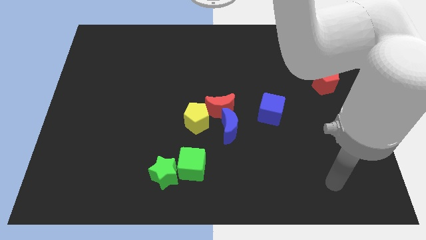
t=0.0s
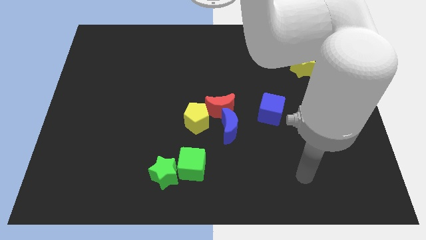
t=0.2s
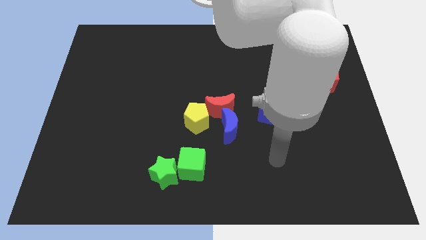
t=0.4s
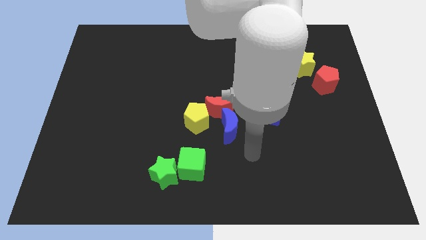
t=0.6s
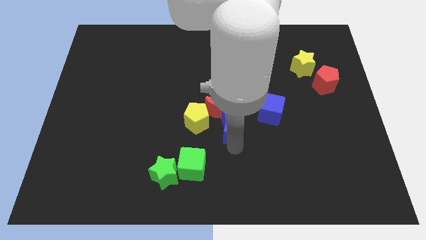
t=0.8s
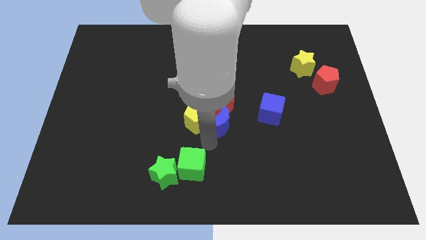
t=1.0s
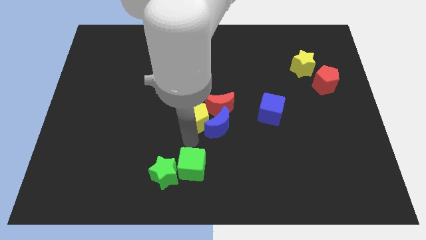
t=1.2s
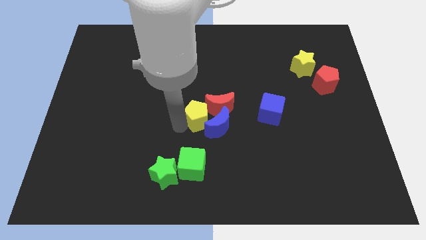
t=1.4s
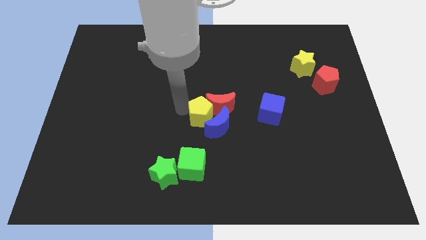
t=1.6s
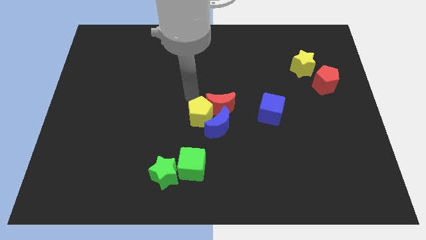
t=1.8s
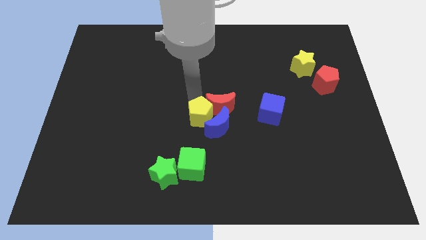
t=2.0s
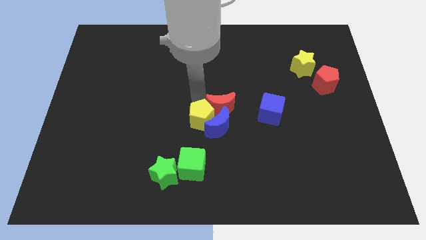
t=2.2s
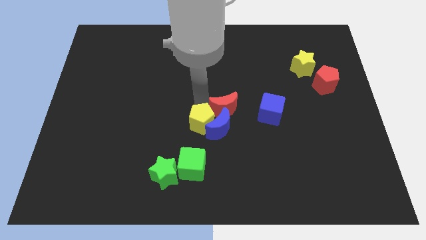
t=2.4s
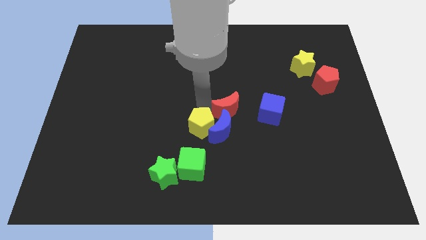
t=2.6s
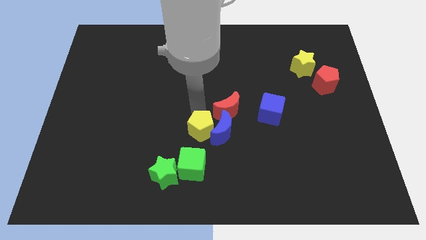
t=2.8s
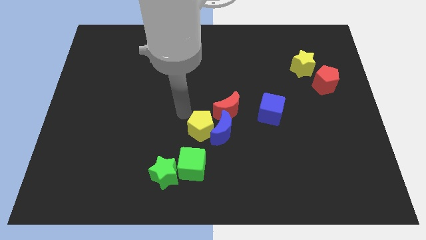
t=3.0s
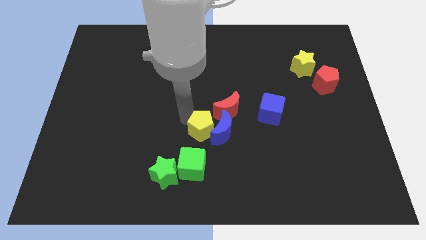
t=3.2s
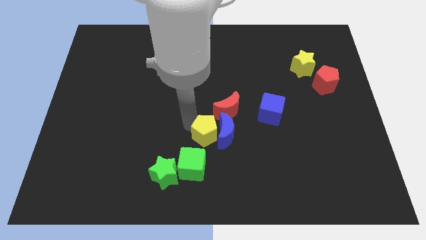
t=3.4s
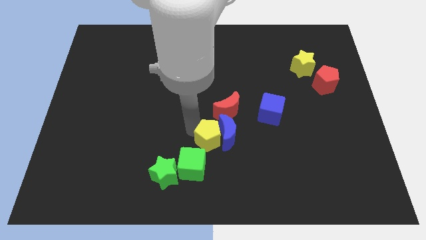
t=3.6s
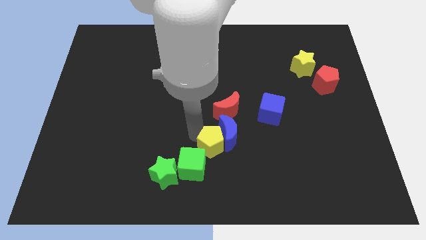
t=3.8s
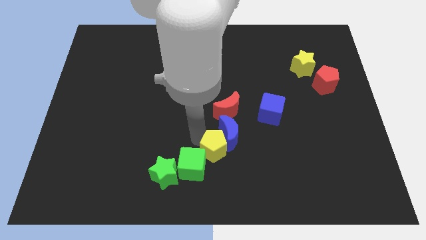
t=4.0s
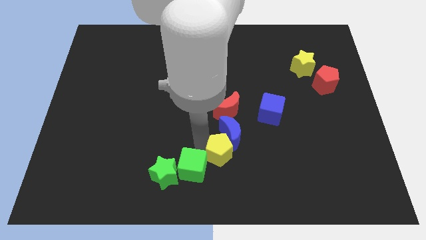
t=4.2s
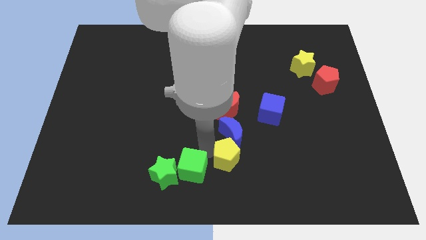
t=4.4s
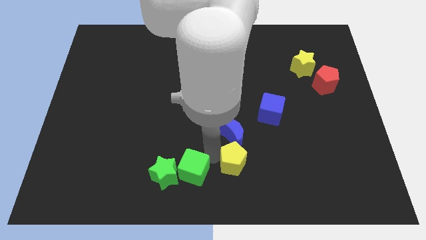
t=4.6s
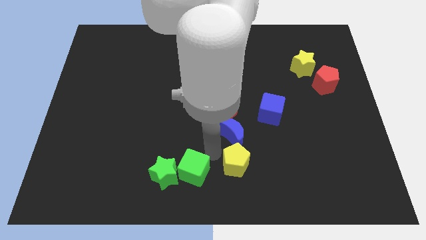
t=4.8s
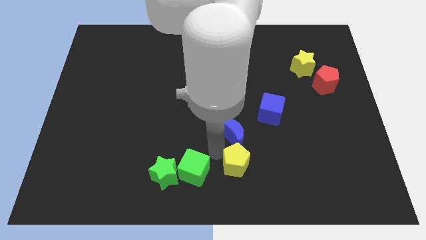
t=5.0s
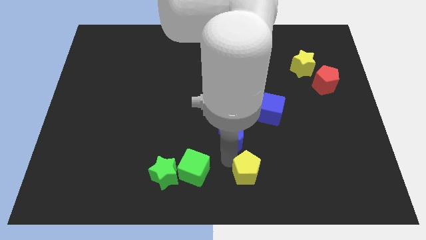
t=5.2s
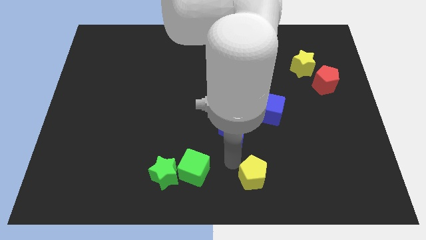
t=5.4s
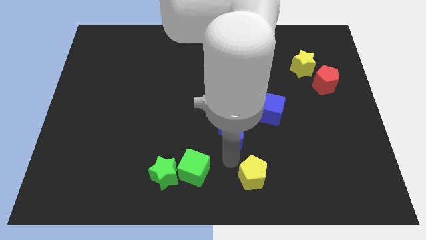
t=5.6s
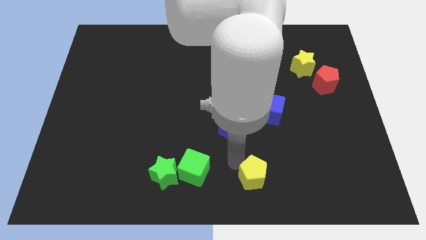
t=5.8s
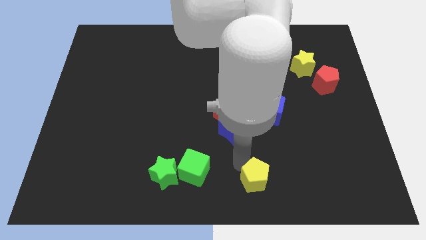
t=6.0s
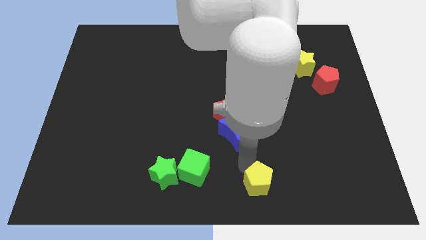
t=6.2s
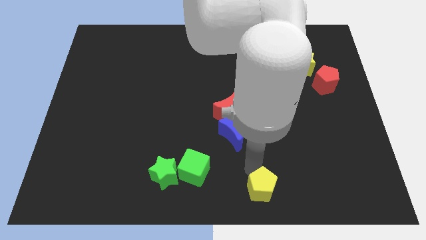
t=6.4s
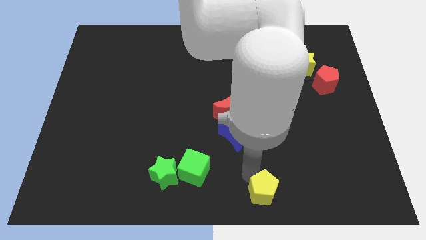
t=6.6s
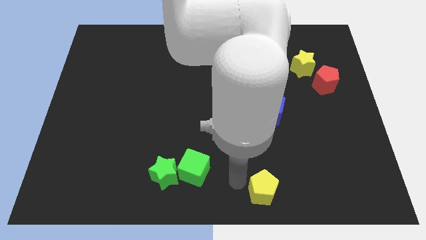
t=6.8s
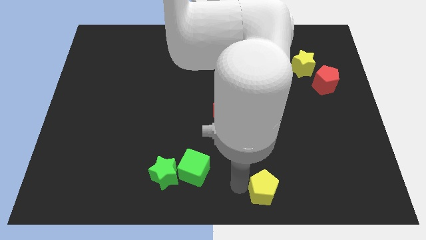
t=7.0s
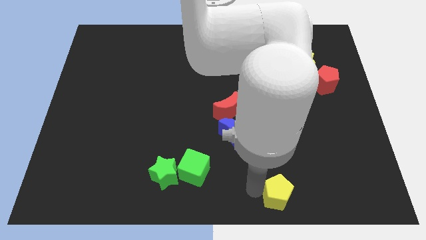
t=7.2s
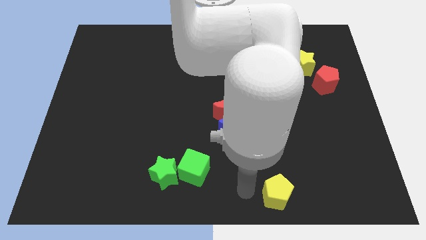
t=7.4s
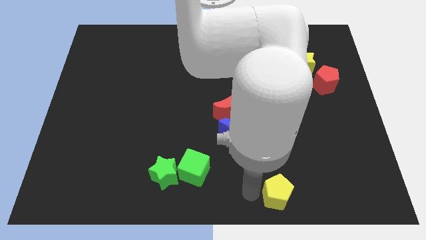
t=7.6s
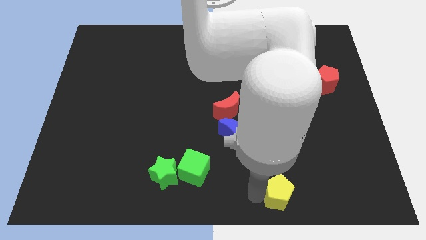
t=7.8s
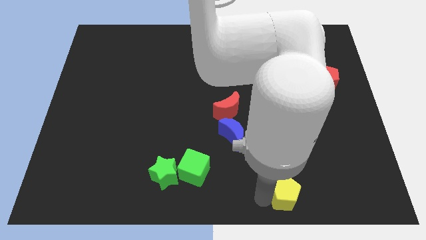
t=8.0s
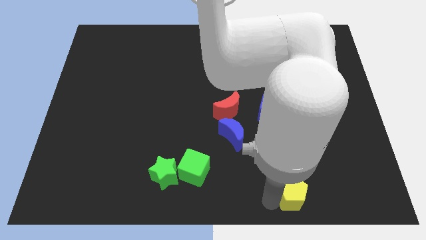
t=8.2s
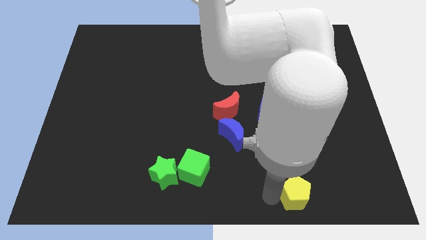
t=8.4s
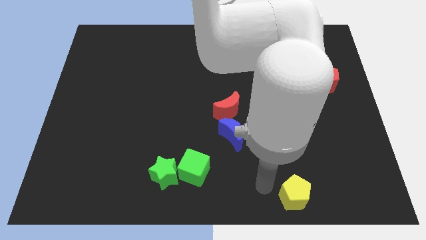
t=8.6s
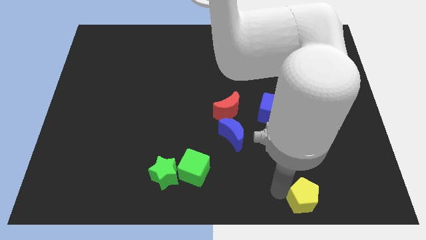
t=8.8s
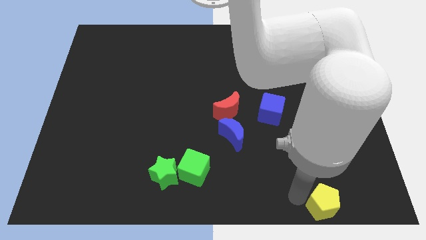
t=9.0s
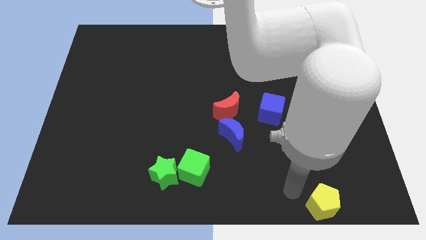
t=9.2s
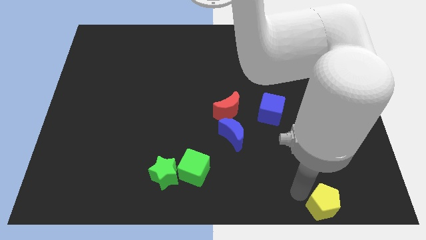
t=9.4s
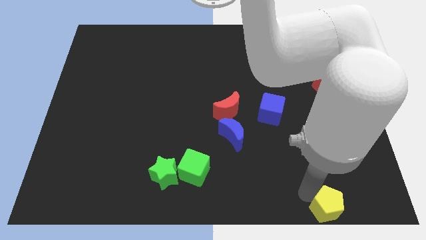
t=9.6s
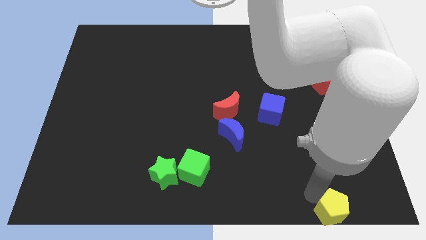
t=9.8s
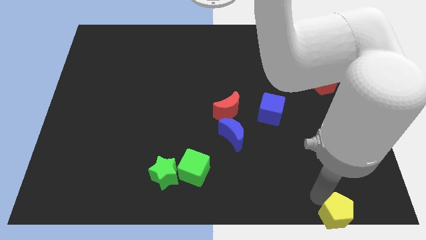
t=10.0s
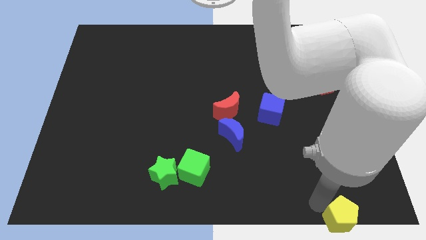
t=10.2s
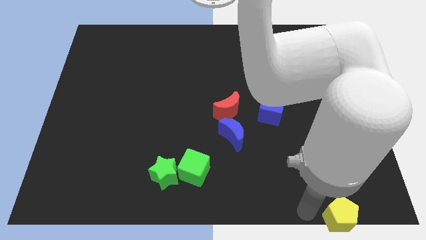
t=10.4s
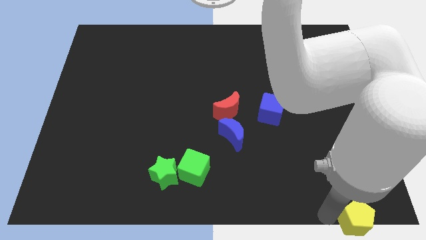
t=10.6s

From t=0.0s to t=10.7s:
slide the yellow pentagon to the bottom right corner
